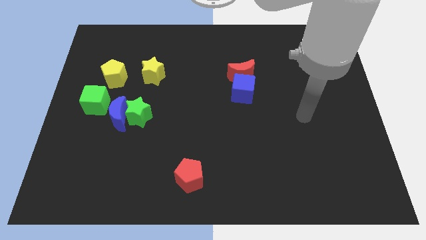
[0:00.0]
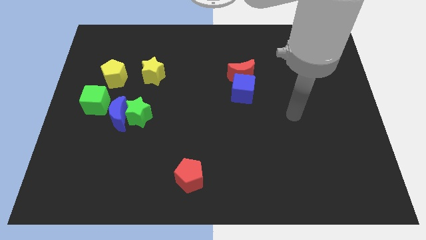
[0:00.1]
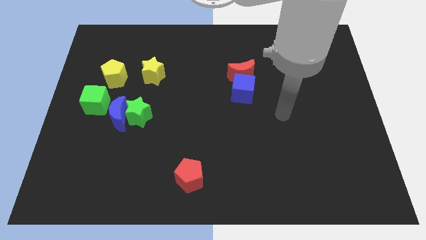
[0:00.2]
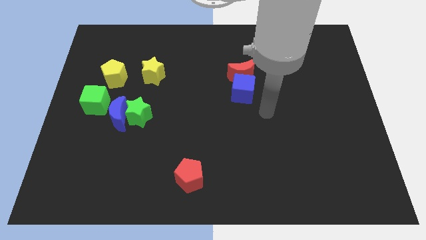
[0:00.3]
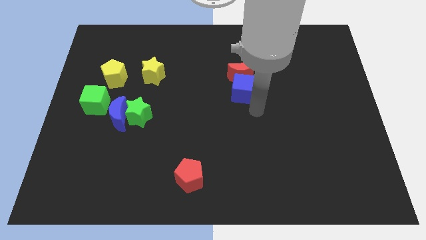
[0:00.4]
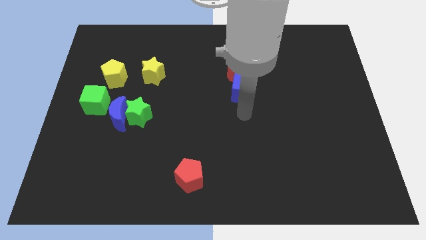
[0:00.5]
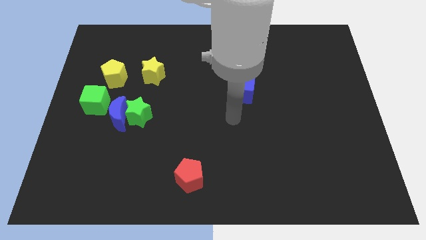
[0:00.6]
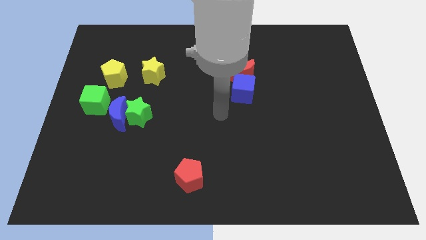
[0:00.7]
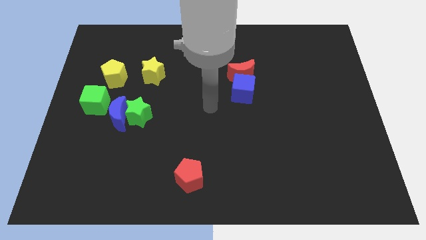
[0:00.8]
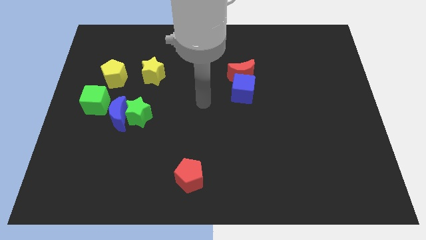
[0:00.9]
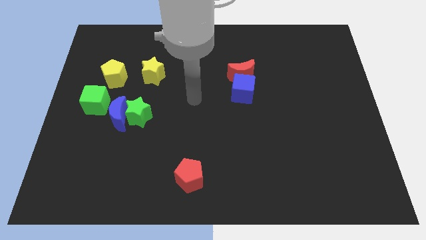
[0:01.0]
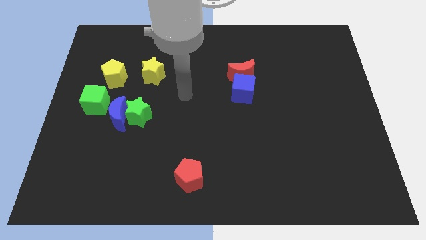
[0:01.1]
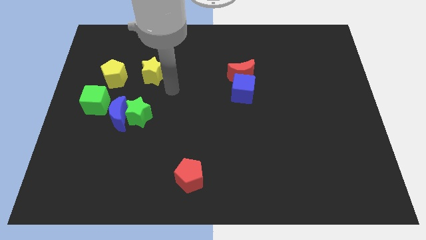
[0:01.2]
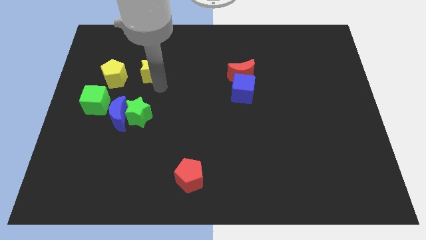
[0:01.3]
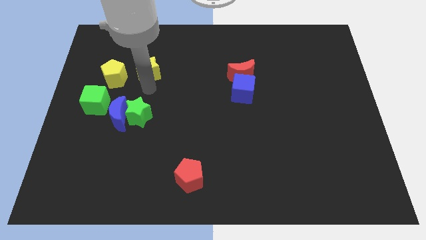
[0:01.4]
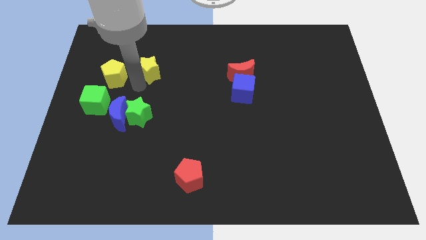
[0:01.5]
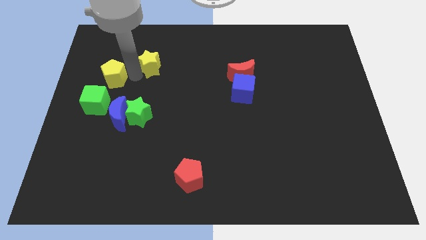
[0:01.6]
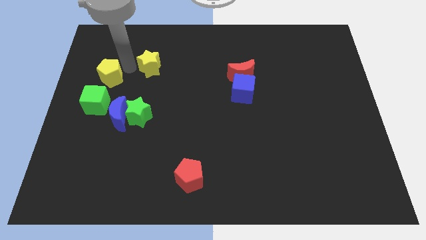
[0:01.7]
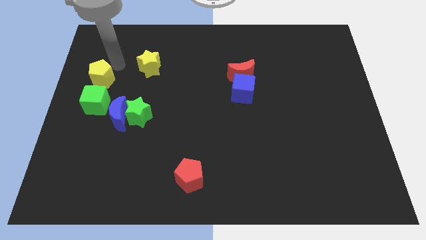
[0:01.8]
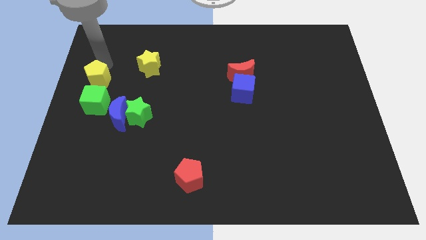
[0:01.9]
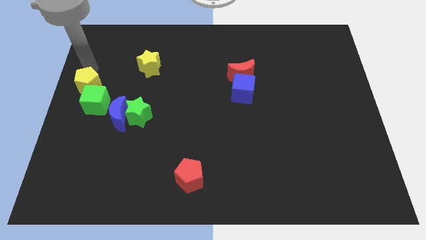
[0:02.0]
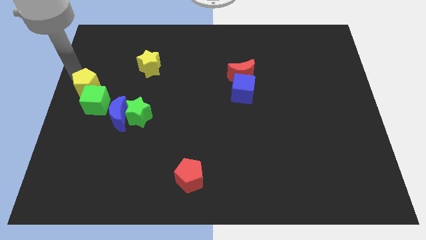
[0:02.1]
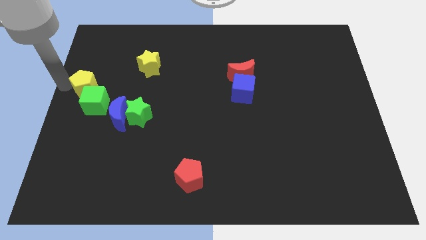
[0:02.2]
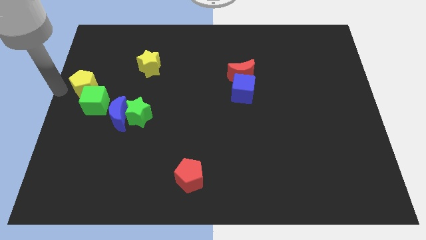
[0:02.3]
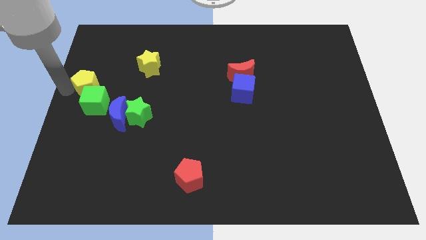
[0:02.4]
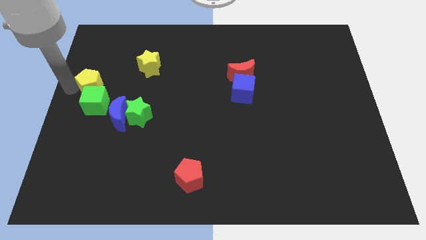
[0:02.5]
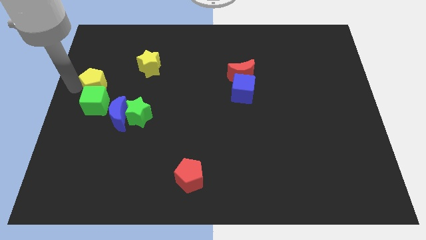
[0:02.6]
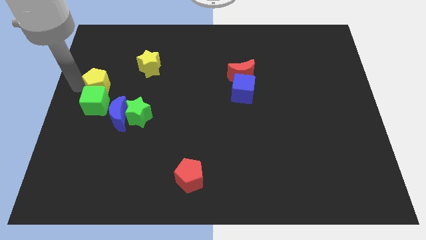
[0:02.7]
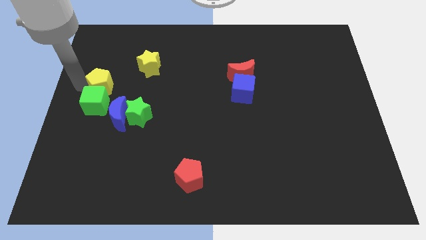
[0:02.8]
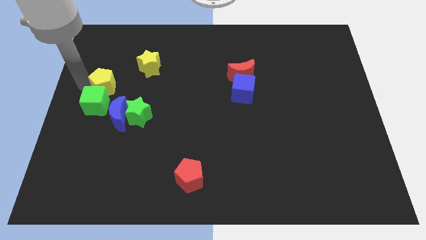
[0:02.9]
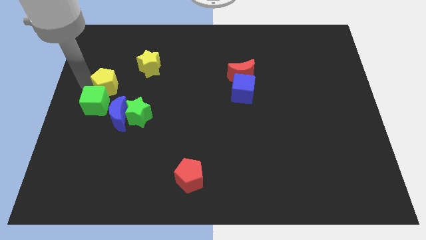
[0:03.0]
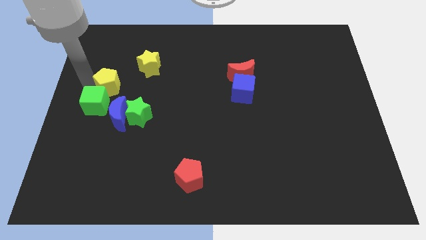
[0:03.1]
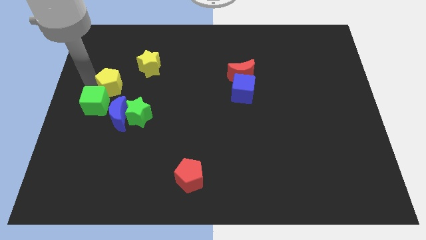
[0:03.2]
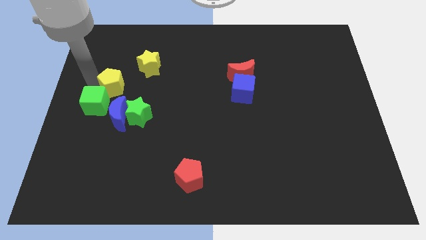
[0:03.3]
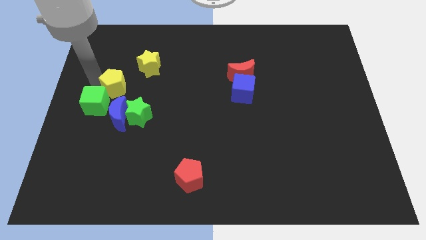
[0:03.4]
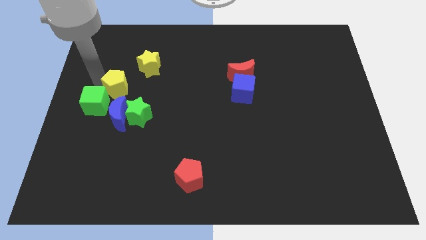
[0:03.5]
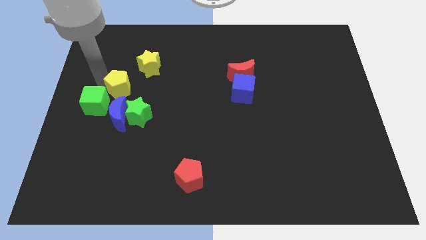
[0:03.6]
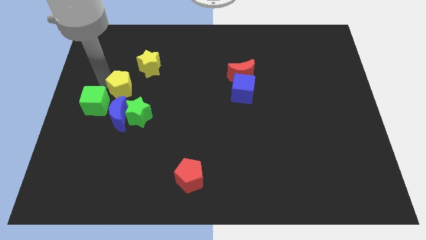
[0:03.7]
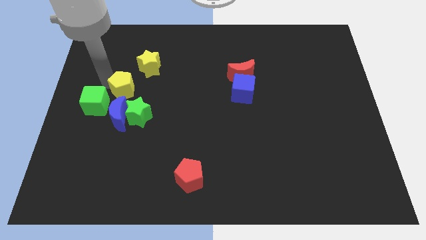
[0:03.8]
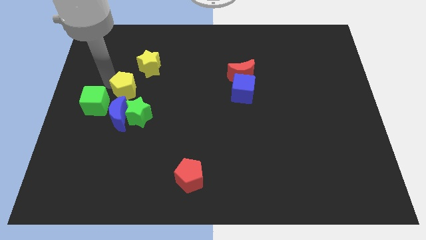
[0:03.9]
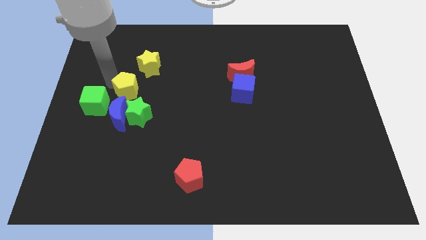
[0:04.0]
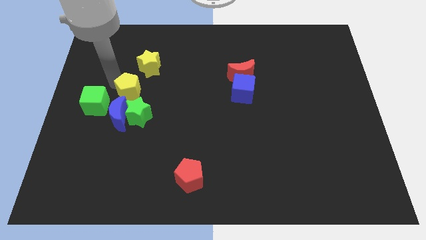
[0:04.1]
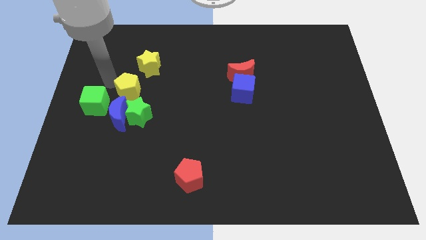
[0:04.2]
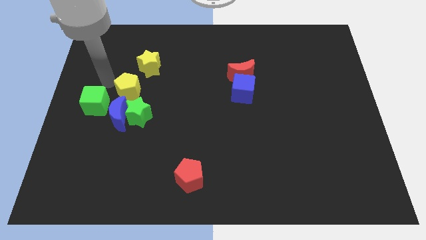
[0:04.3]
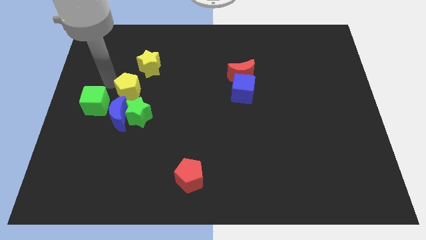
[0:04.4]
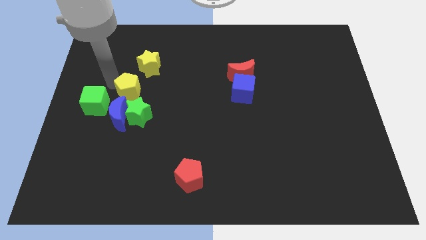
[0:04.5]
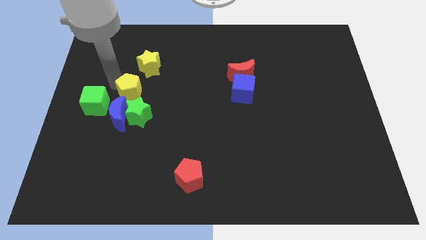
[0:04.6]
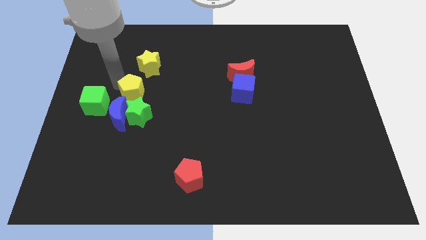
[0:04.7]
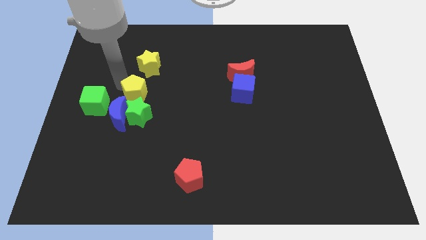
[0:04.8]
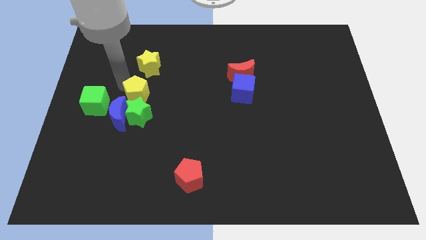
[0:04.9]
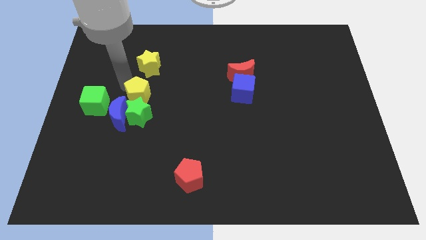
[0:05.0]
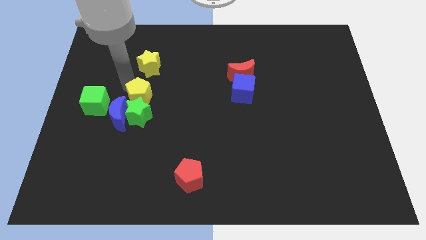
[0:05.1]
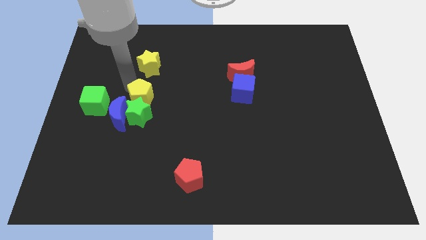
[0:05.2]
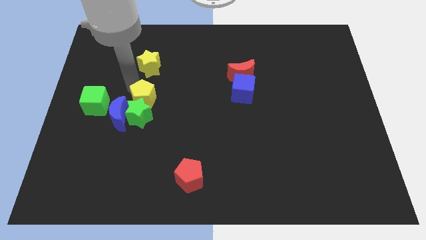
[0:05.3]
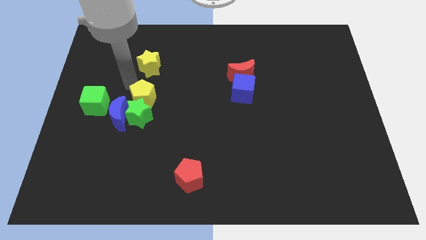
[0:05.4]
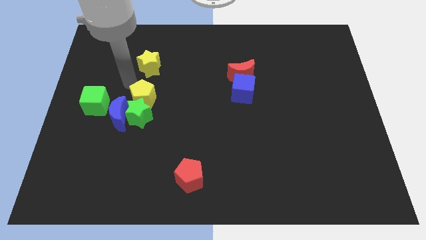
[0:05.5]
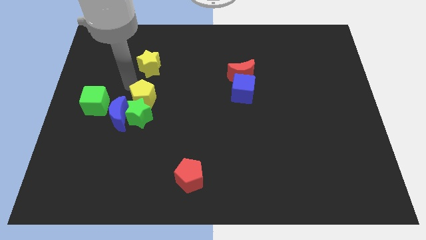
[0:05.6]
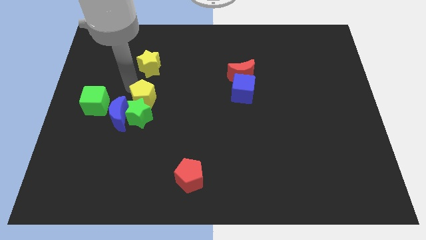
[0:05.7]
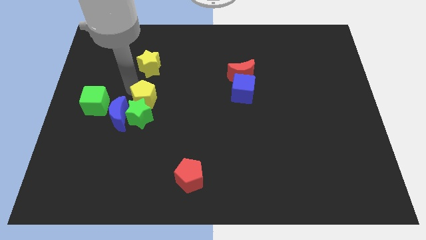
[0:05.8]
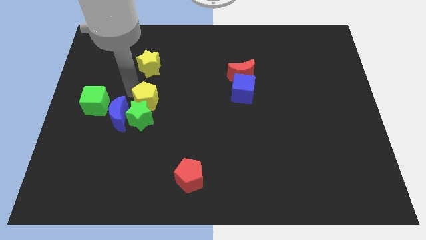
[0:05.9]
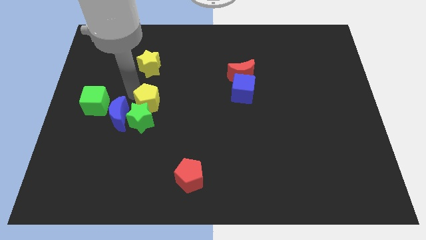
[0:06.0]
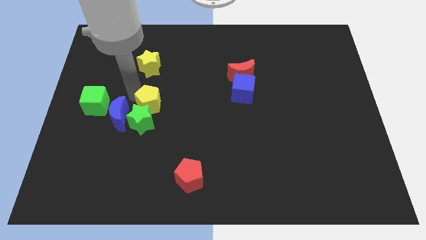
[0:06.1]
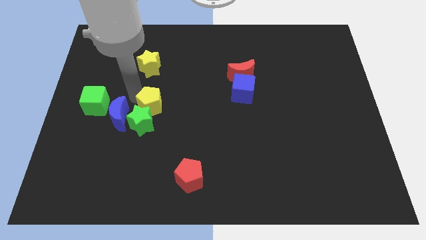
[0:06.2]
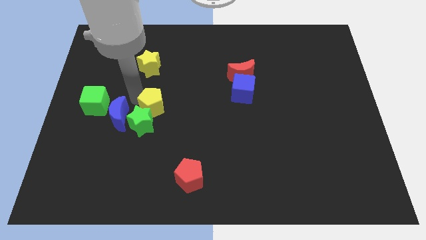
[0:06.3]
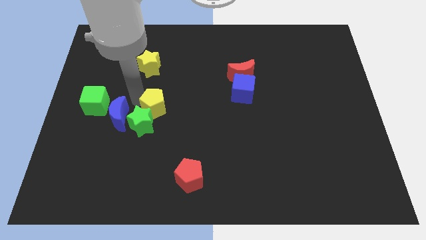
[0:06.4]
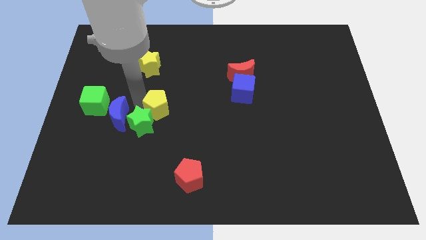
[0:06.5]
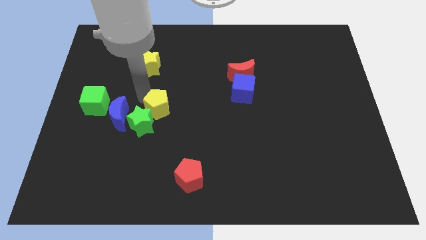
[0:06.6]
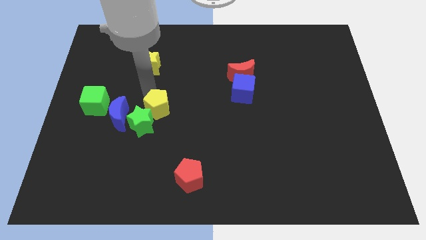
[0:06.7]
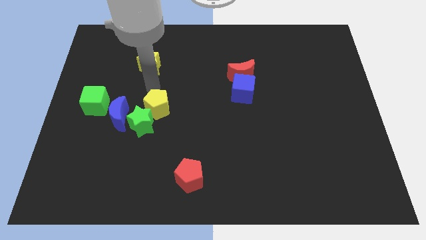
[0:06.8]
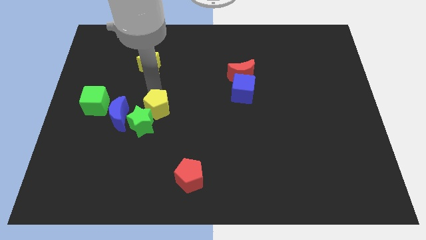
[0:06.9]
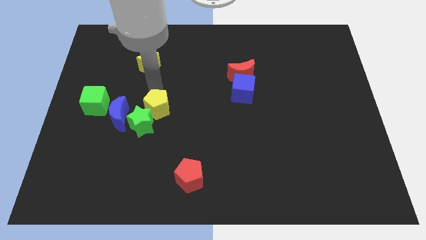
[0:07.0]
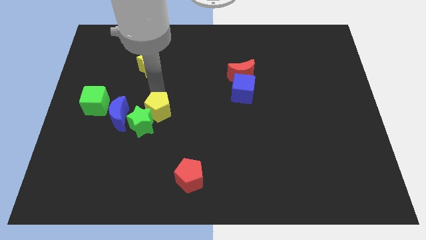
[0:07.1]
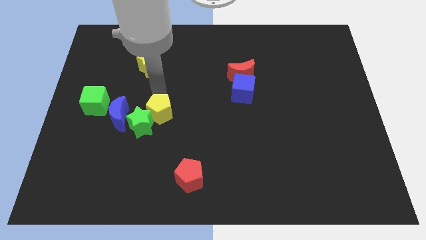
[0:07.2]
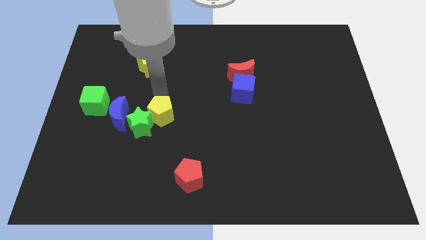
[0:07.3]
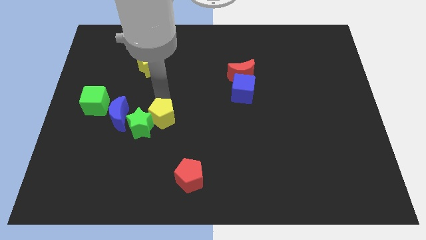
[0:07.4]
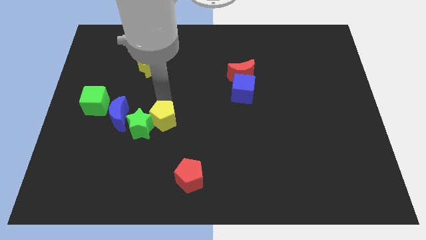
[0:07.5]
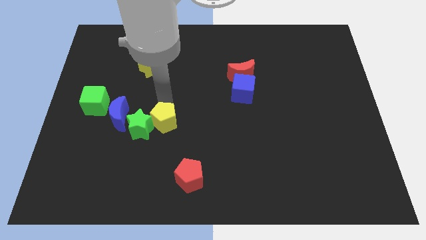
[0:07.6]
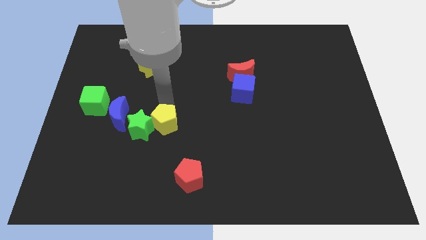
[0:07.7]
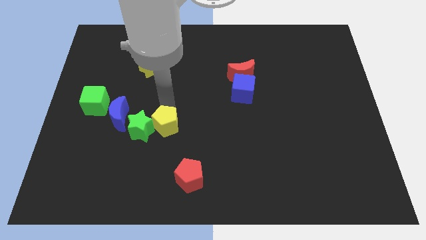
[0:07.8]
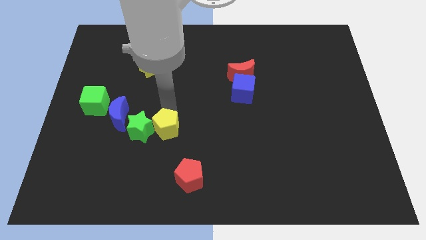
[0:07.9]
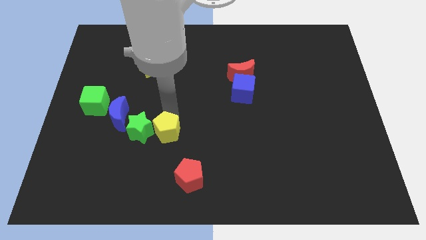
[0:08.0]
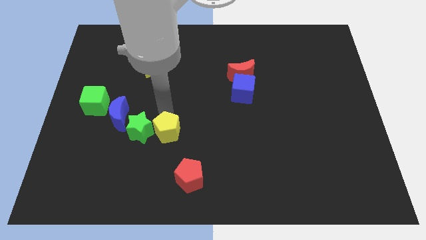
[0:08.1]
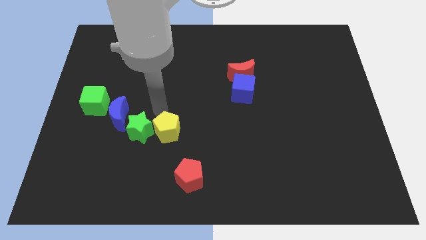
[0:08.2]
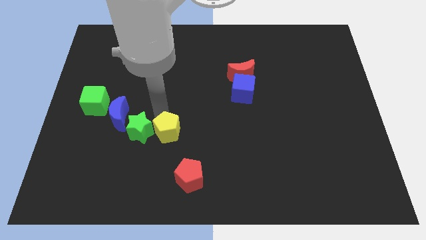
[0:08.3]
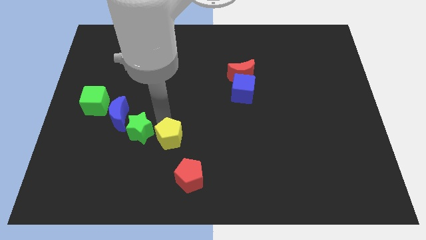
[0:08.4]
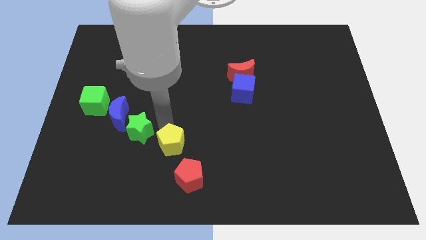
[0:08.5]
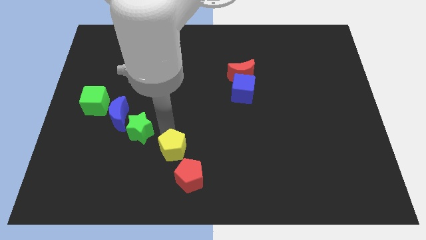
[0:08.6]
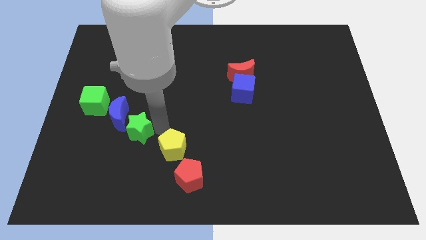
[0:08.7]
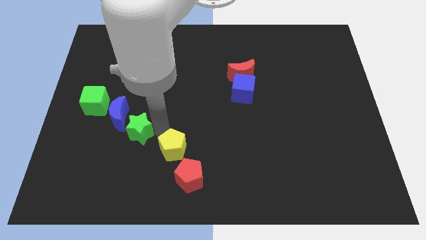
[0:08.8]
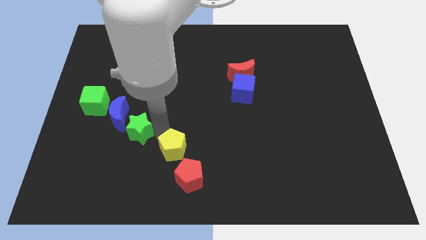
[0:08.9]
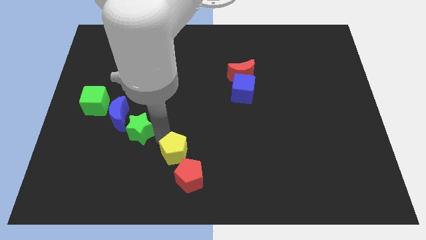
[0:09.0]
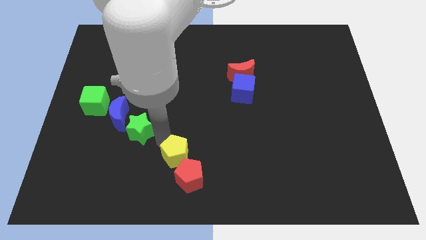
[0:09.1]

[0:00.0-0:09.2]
push the yellow pentagon towards the red pentagon
